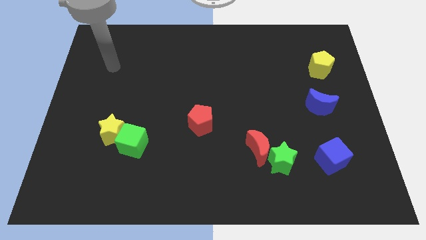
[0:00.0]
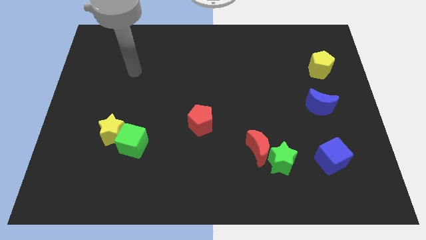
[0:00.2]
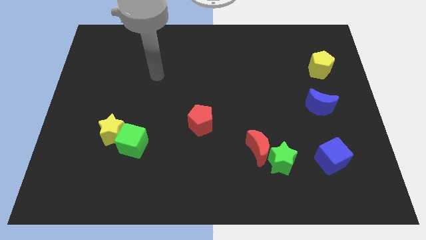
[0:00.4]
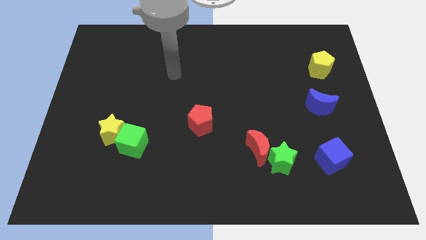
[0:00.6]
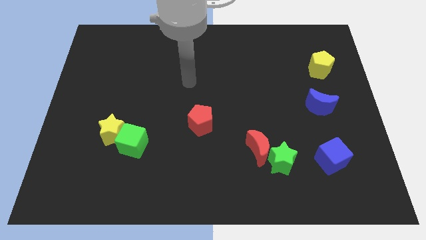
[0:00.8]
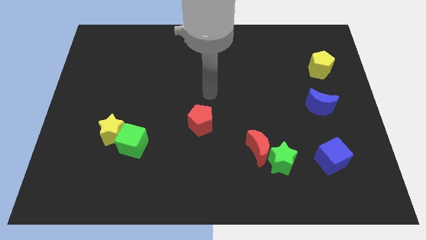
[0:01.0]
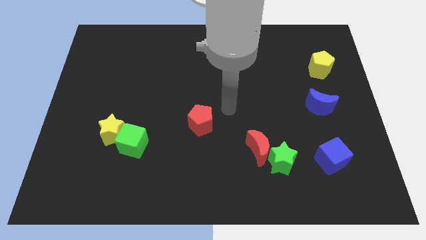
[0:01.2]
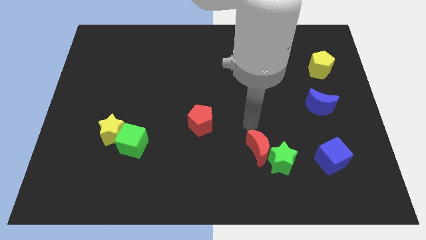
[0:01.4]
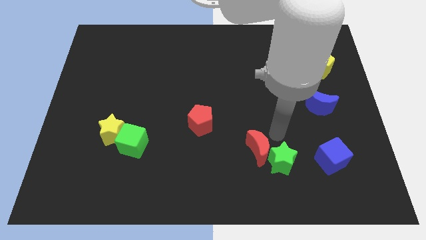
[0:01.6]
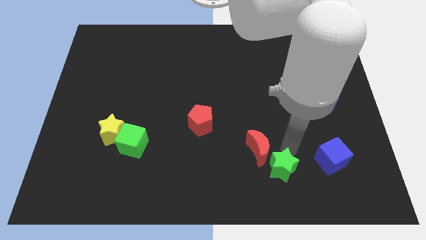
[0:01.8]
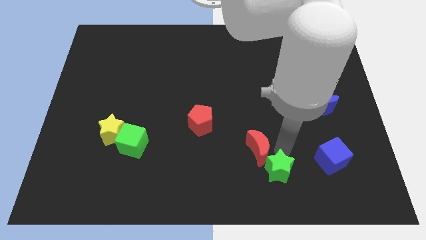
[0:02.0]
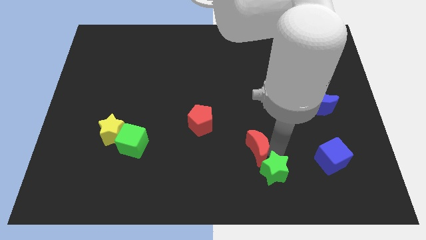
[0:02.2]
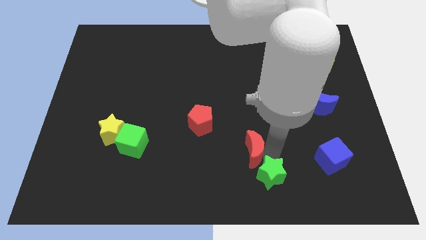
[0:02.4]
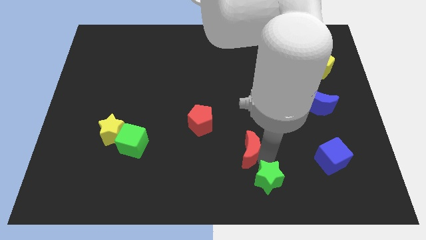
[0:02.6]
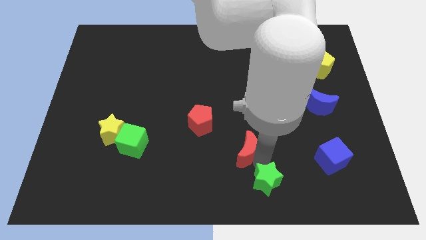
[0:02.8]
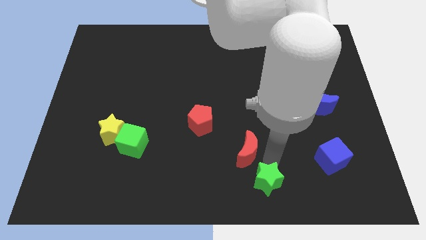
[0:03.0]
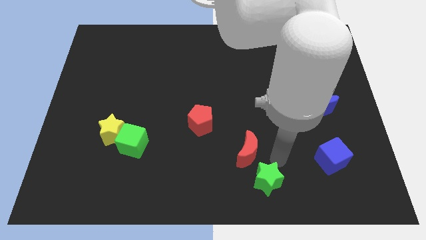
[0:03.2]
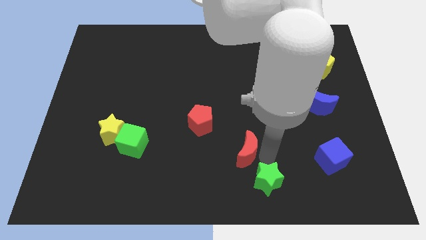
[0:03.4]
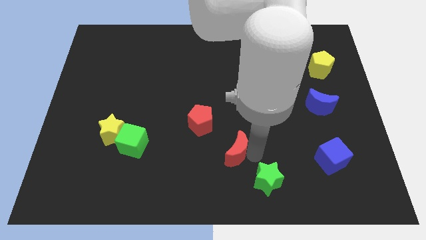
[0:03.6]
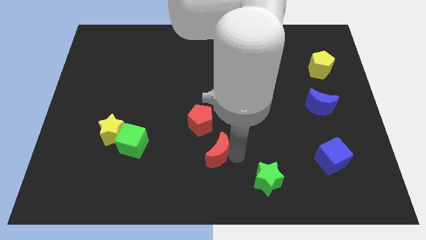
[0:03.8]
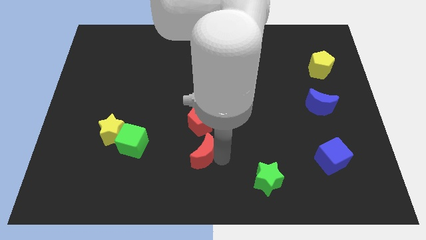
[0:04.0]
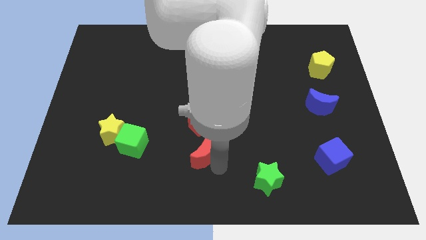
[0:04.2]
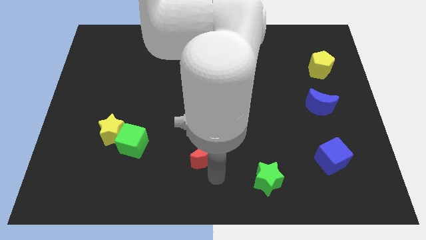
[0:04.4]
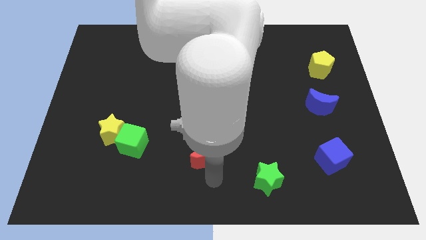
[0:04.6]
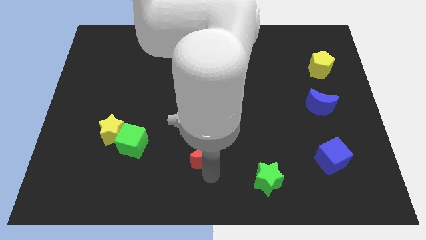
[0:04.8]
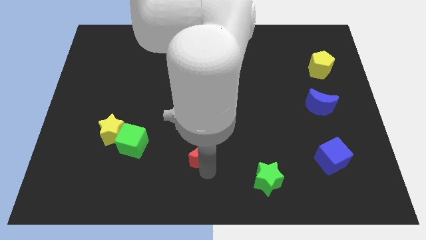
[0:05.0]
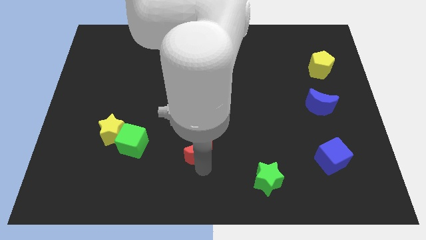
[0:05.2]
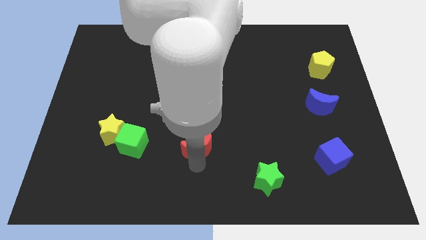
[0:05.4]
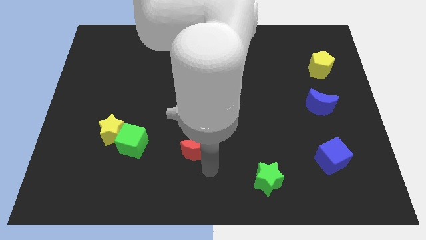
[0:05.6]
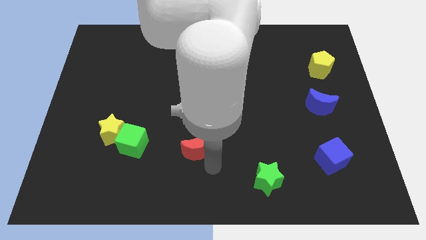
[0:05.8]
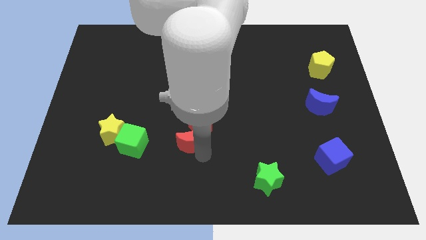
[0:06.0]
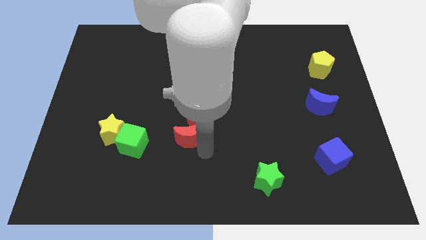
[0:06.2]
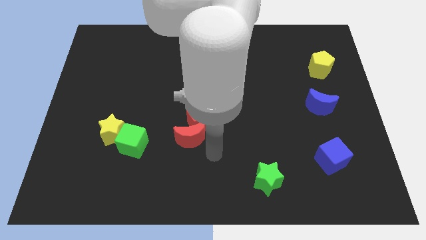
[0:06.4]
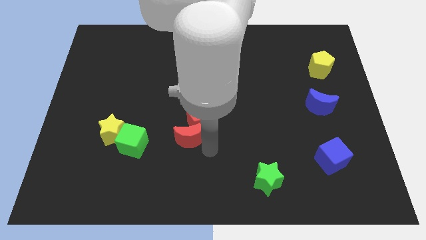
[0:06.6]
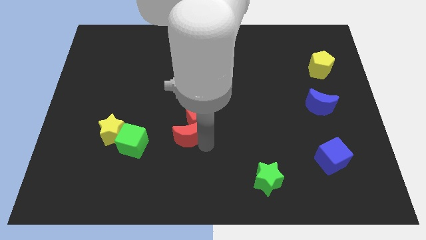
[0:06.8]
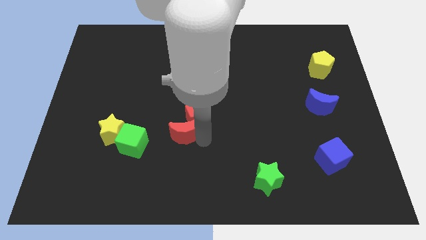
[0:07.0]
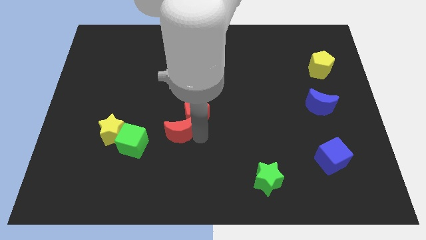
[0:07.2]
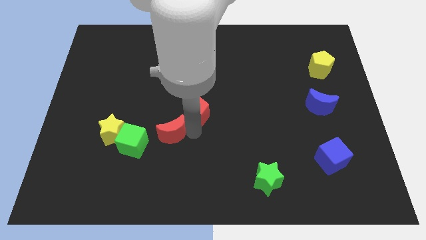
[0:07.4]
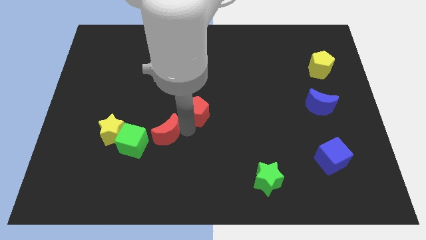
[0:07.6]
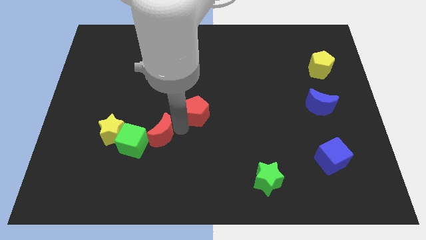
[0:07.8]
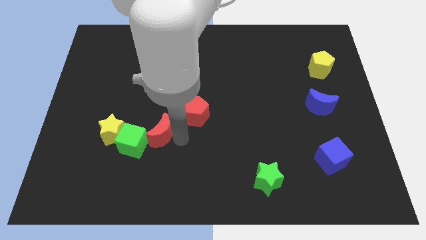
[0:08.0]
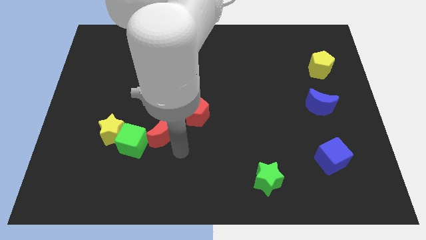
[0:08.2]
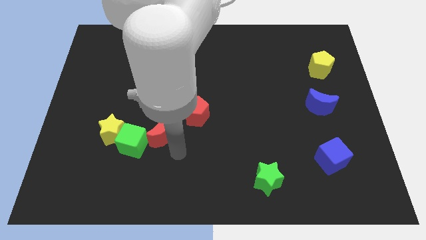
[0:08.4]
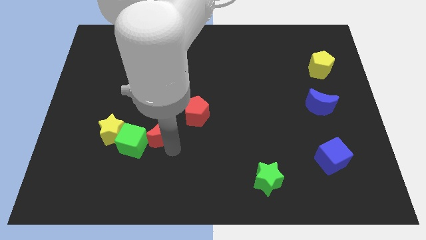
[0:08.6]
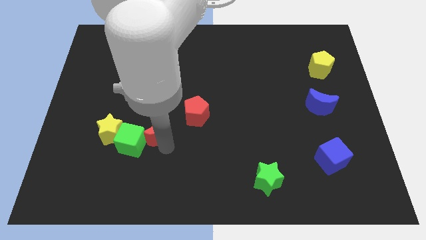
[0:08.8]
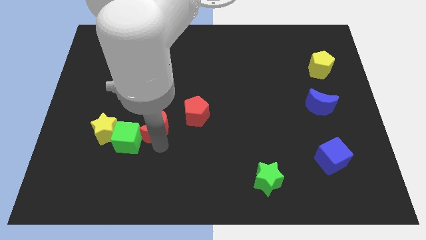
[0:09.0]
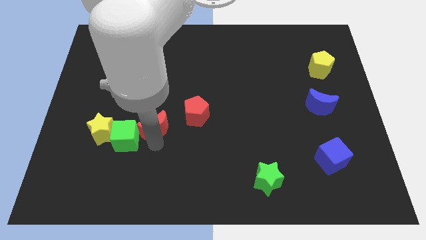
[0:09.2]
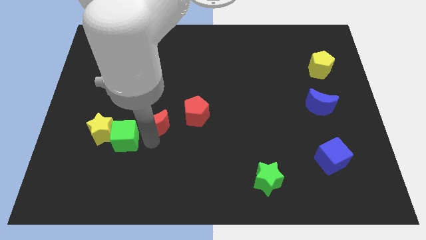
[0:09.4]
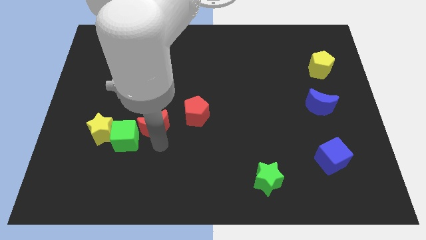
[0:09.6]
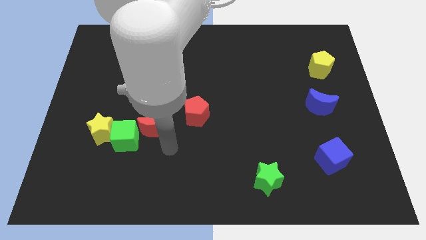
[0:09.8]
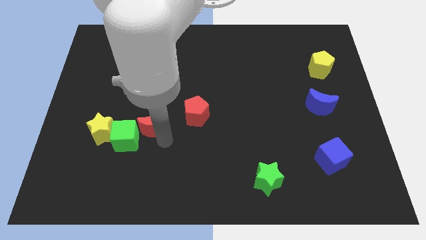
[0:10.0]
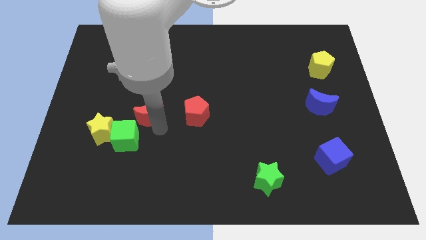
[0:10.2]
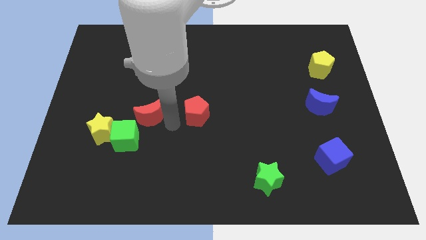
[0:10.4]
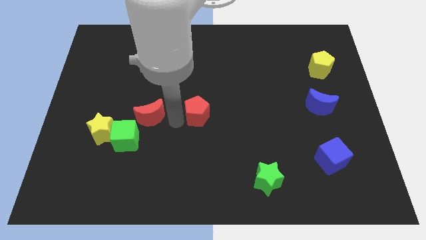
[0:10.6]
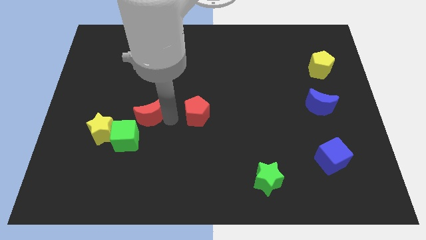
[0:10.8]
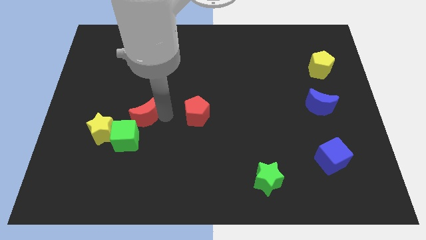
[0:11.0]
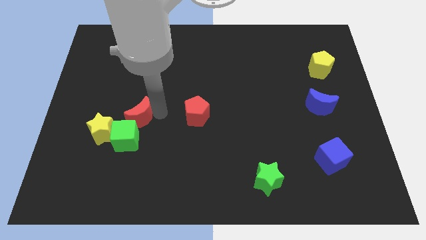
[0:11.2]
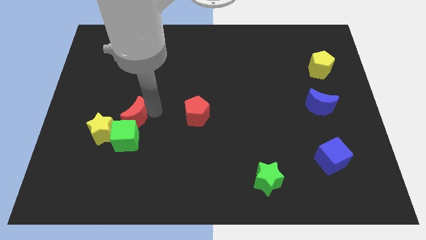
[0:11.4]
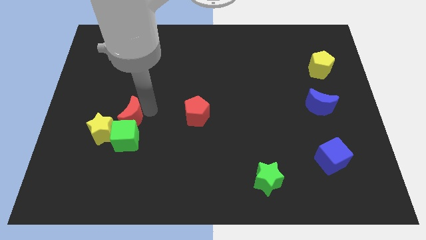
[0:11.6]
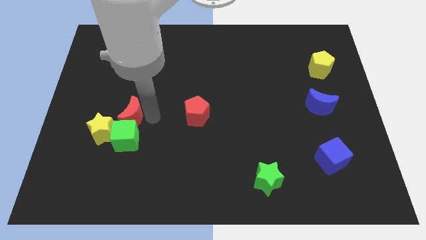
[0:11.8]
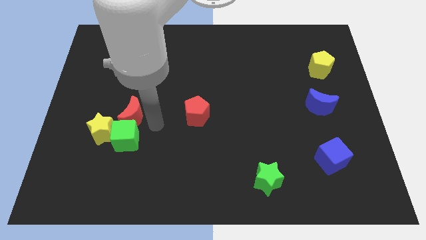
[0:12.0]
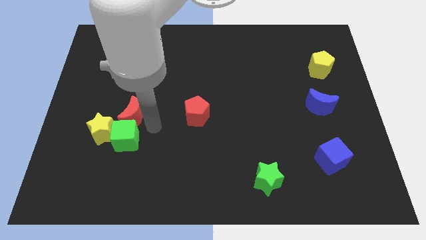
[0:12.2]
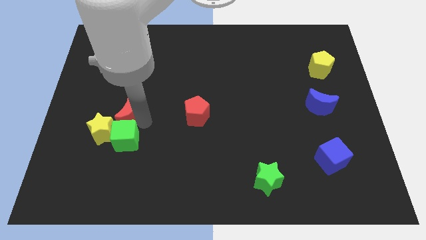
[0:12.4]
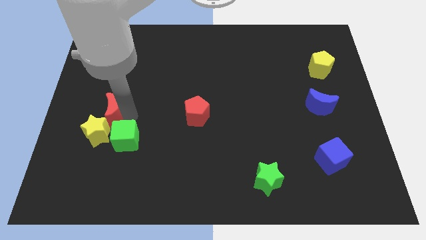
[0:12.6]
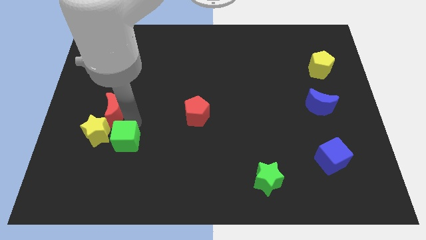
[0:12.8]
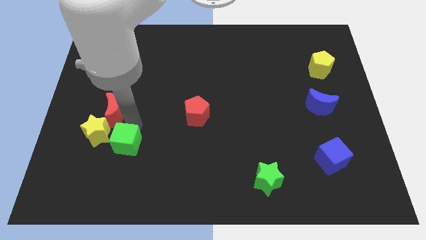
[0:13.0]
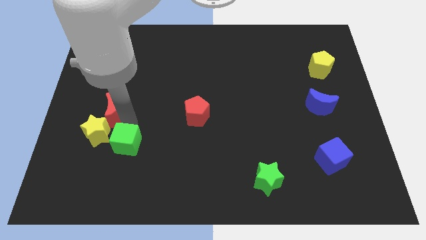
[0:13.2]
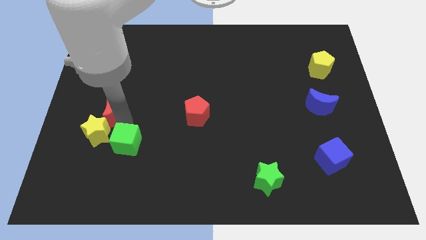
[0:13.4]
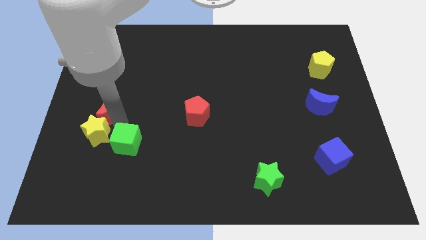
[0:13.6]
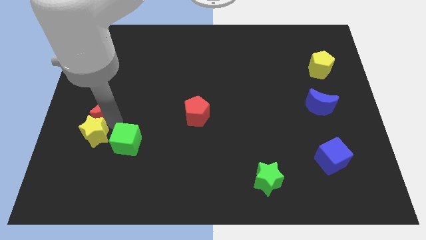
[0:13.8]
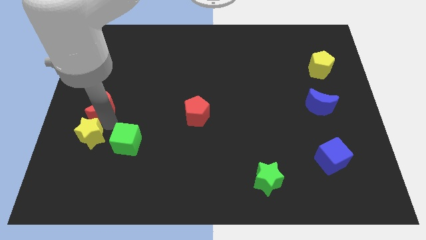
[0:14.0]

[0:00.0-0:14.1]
push the red moon to the left side of the board
